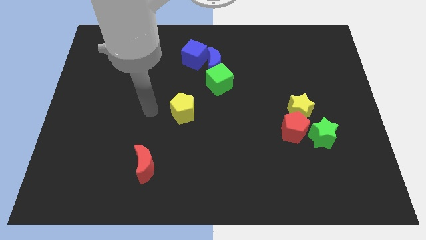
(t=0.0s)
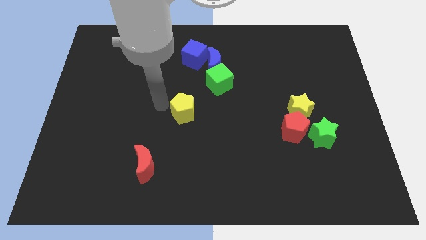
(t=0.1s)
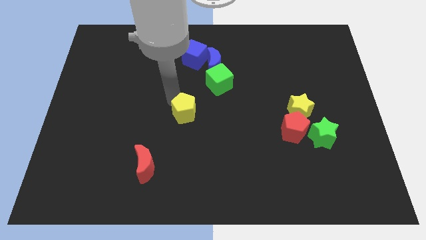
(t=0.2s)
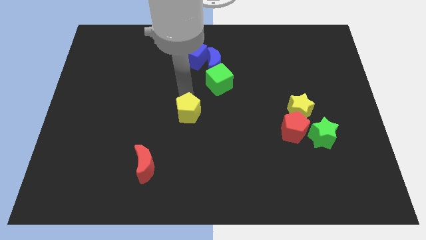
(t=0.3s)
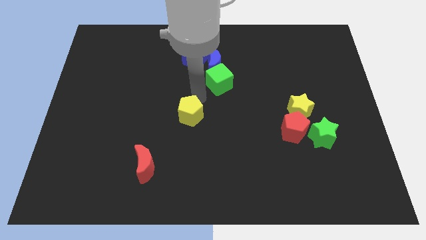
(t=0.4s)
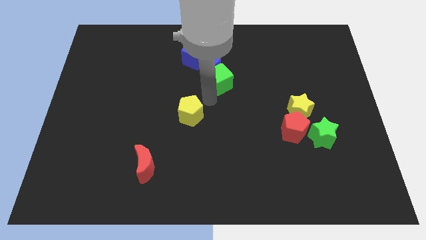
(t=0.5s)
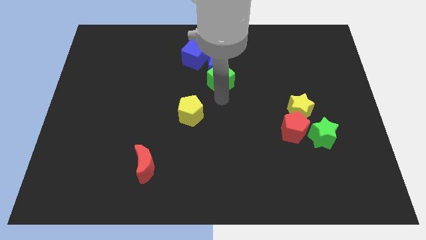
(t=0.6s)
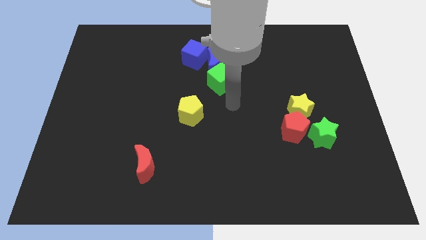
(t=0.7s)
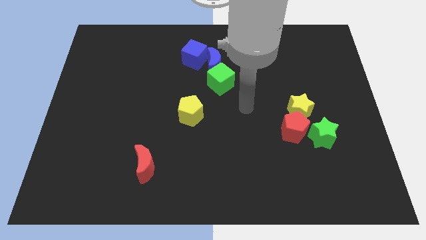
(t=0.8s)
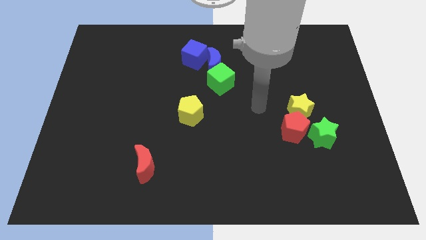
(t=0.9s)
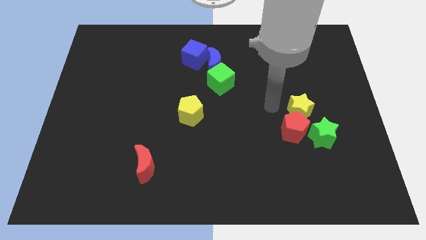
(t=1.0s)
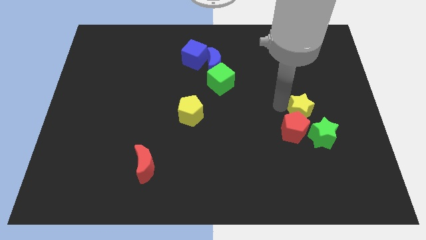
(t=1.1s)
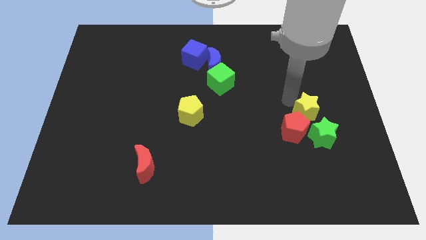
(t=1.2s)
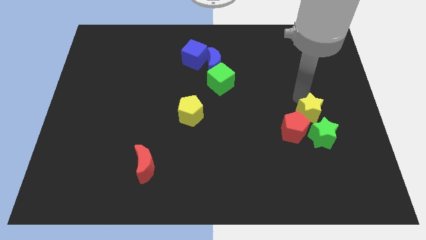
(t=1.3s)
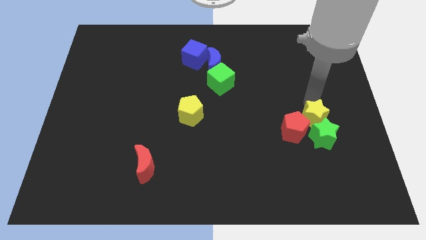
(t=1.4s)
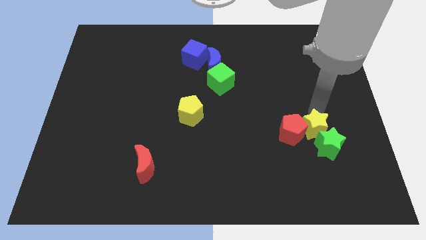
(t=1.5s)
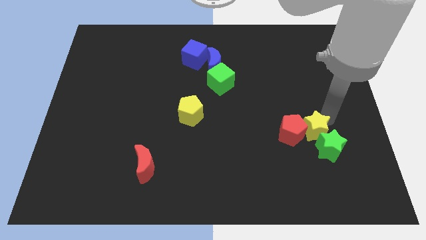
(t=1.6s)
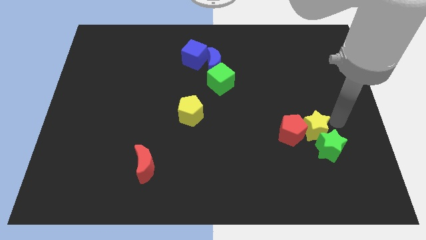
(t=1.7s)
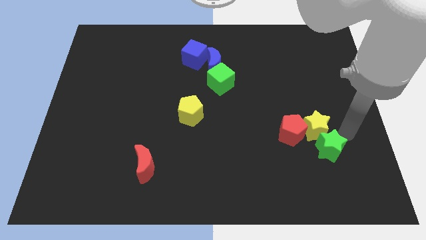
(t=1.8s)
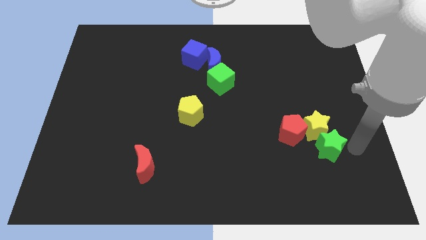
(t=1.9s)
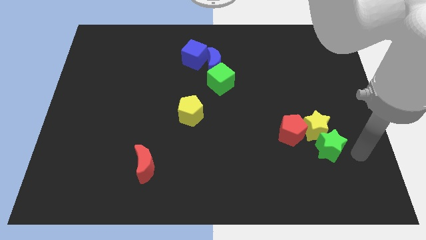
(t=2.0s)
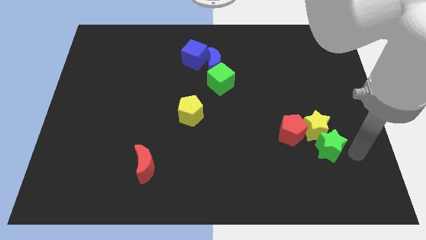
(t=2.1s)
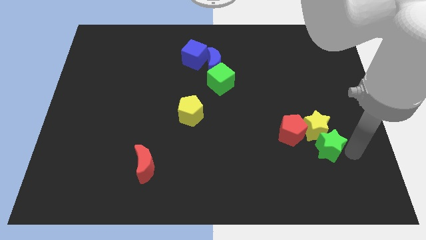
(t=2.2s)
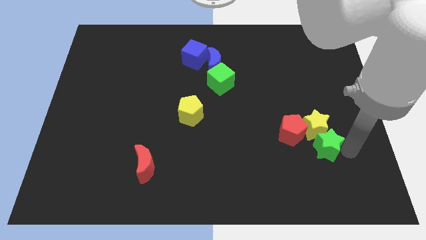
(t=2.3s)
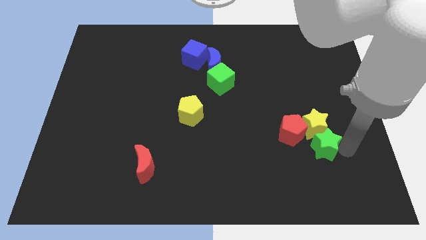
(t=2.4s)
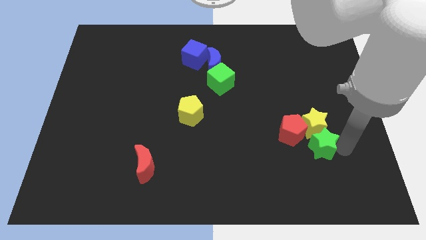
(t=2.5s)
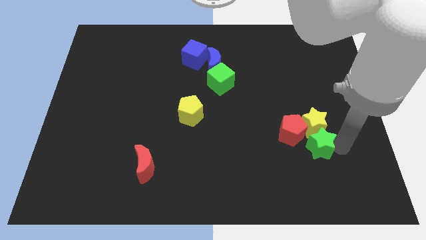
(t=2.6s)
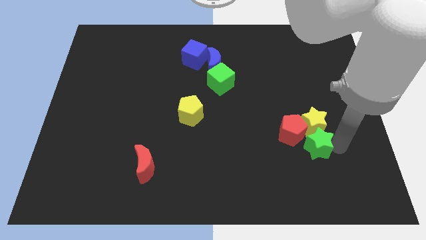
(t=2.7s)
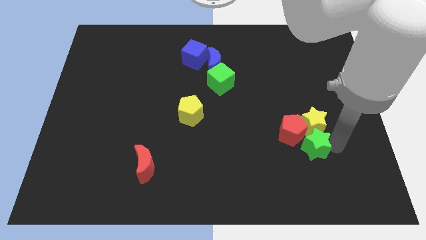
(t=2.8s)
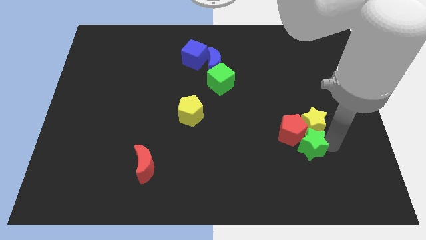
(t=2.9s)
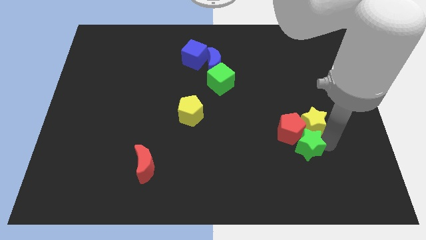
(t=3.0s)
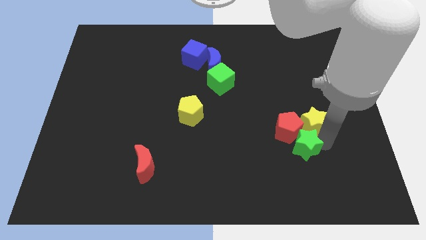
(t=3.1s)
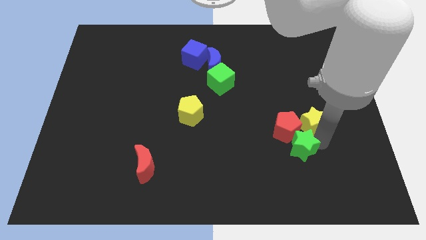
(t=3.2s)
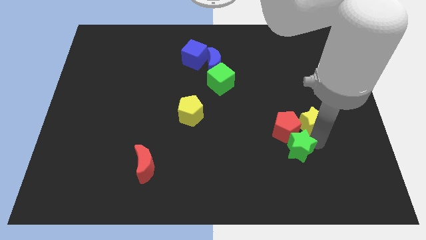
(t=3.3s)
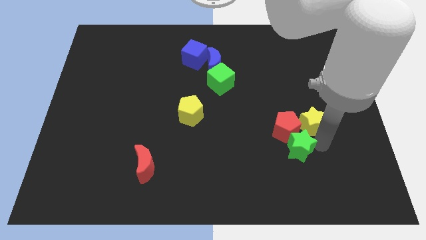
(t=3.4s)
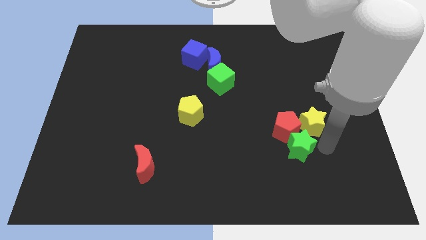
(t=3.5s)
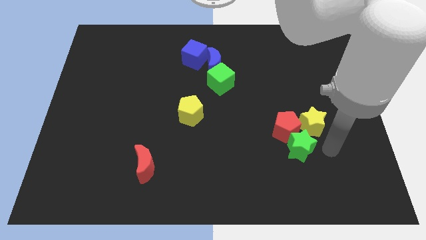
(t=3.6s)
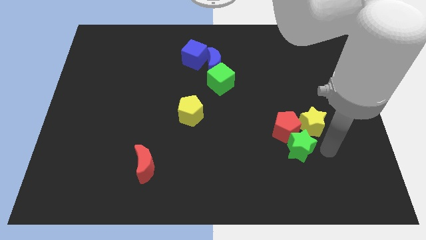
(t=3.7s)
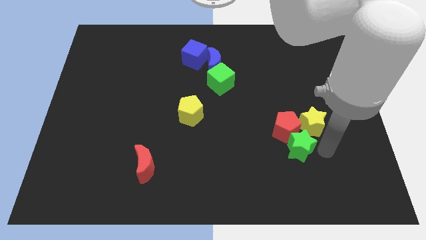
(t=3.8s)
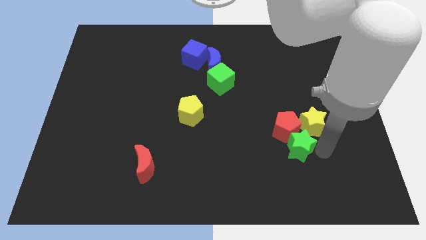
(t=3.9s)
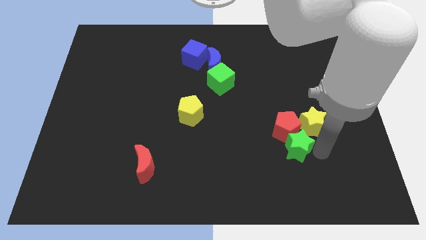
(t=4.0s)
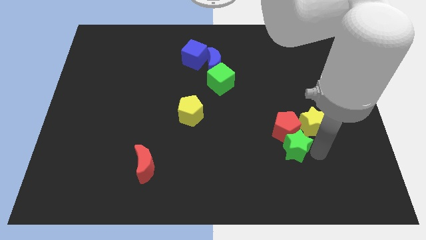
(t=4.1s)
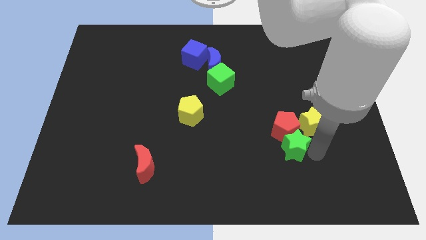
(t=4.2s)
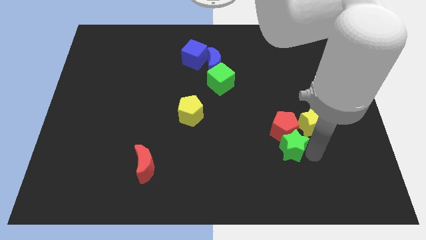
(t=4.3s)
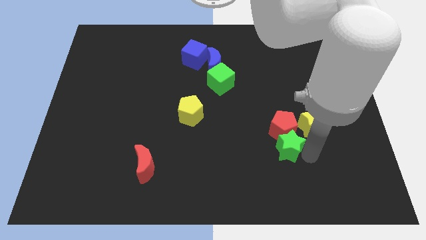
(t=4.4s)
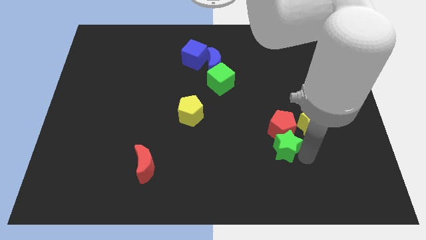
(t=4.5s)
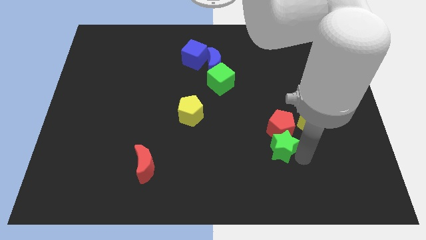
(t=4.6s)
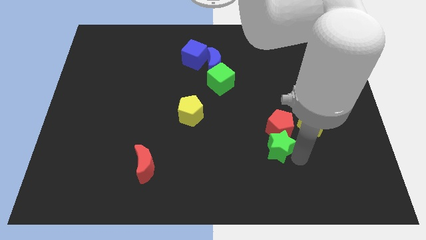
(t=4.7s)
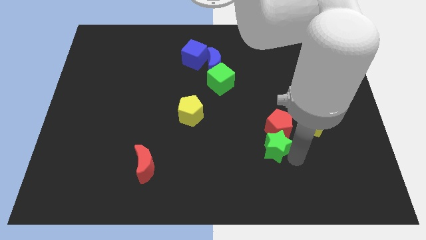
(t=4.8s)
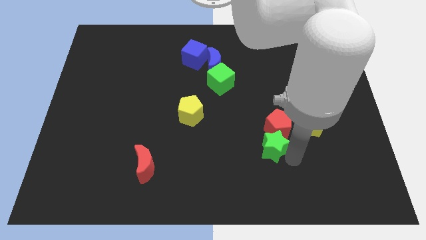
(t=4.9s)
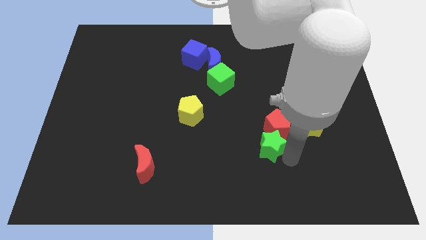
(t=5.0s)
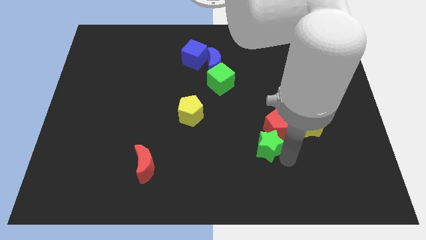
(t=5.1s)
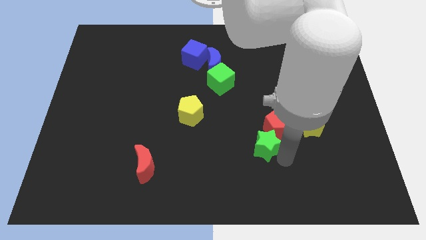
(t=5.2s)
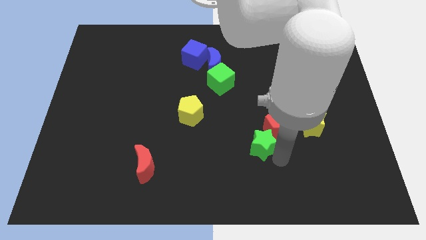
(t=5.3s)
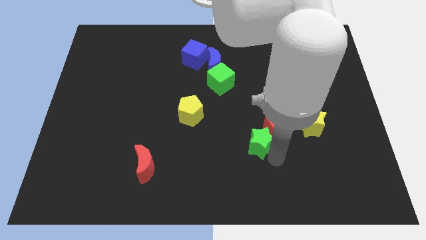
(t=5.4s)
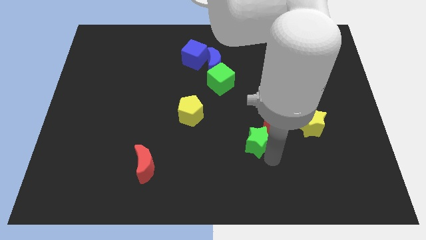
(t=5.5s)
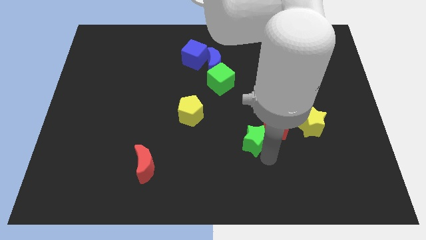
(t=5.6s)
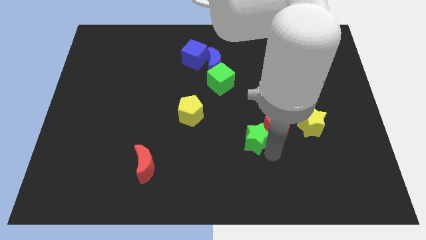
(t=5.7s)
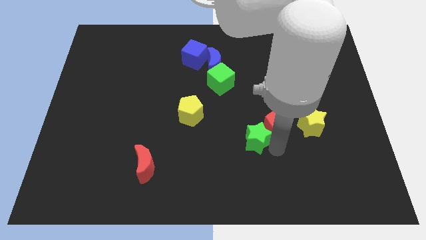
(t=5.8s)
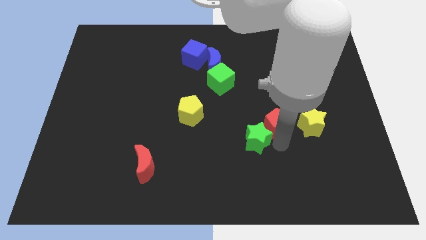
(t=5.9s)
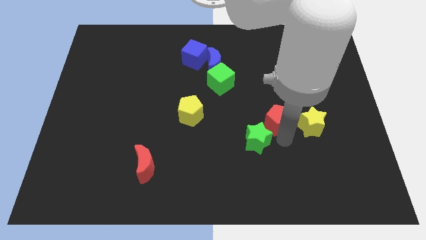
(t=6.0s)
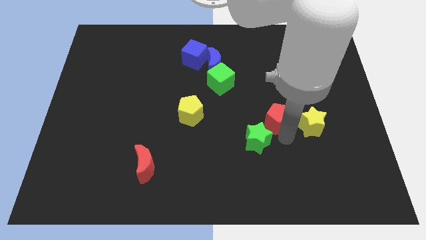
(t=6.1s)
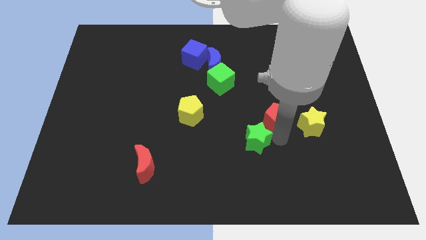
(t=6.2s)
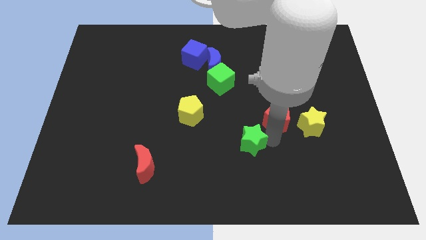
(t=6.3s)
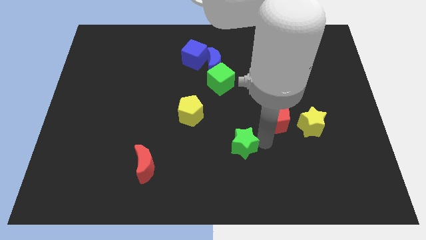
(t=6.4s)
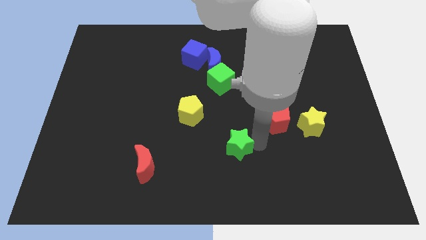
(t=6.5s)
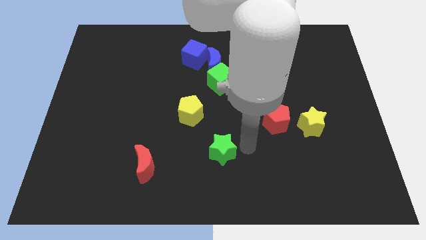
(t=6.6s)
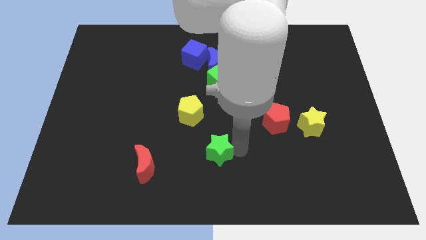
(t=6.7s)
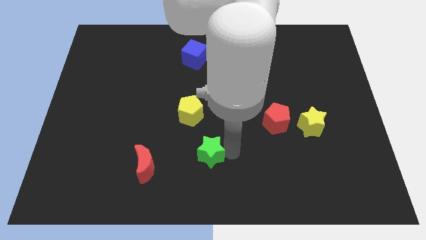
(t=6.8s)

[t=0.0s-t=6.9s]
move the green star to the bottom side of the yellow pentagon

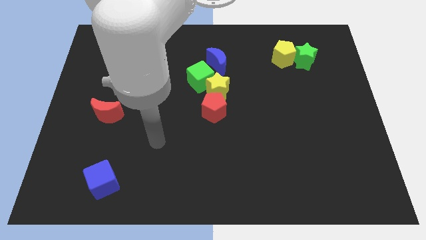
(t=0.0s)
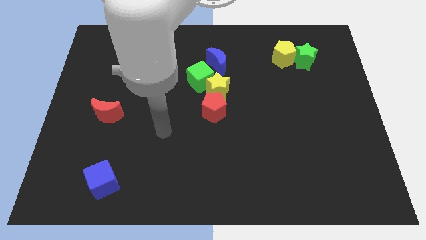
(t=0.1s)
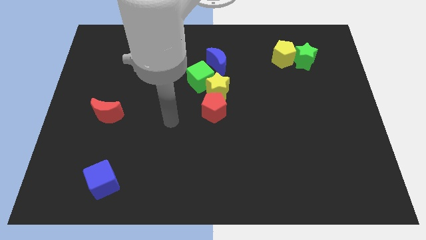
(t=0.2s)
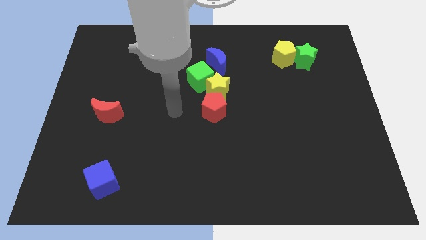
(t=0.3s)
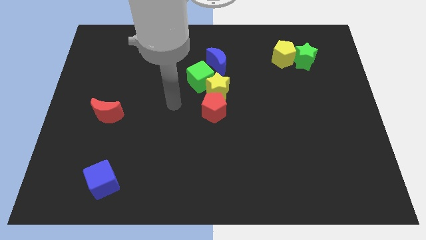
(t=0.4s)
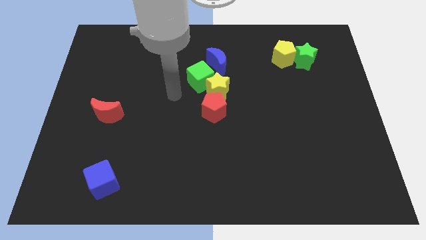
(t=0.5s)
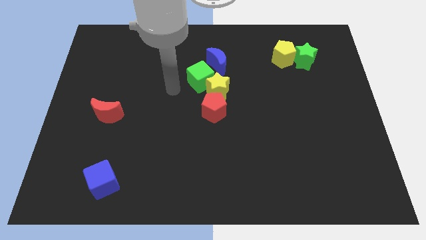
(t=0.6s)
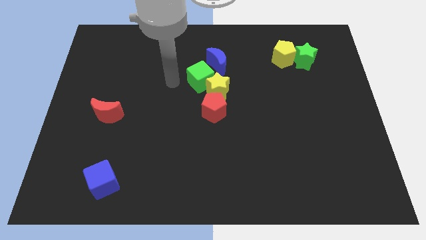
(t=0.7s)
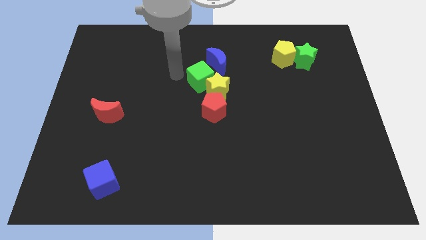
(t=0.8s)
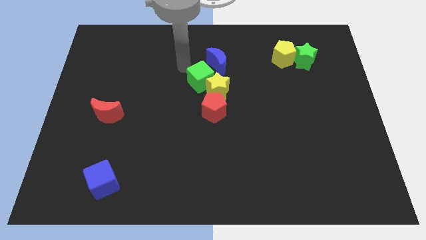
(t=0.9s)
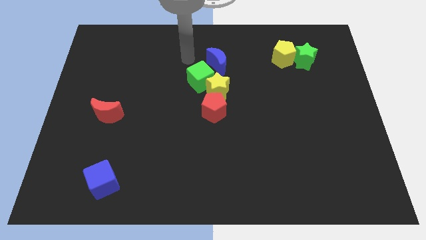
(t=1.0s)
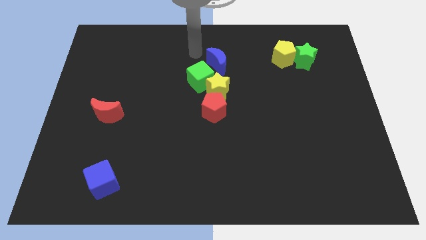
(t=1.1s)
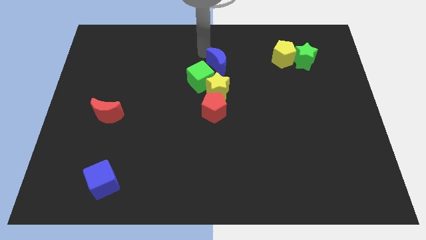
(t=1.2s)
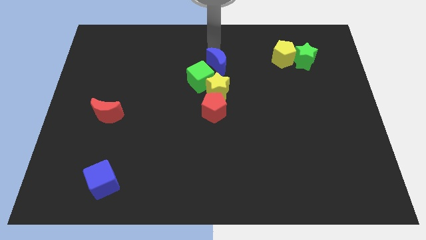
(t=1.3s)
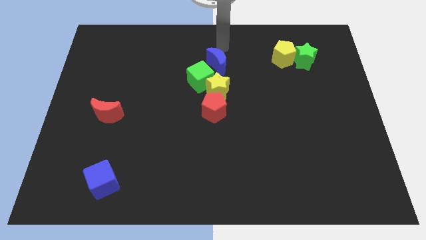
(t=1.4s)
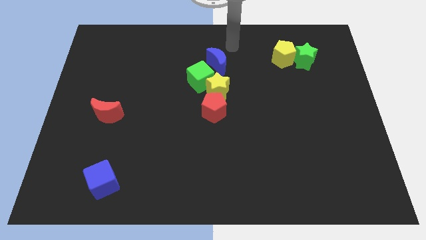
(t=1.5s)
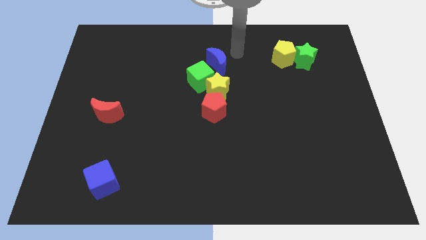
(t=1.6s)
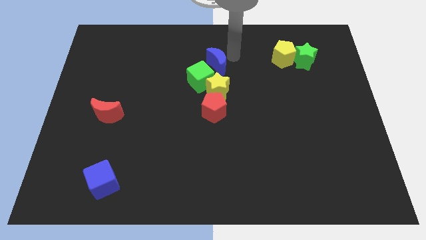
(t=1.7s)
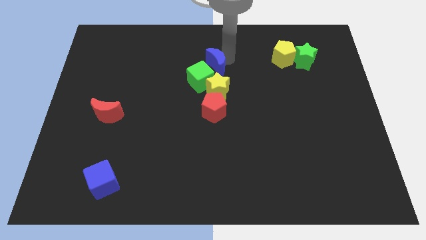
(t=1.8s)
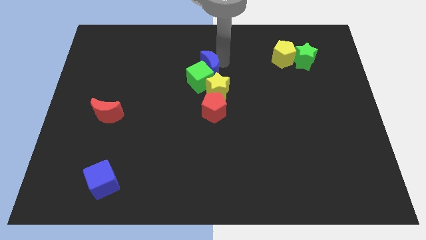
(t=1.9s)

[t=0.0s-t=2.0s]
put the blue moon to the top left of the yellow star
